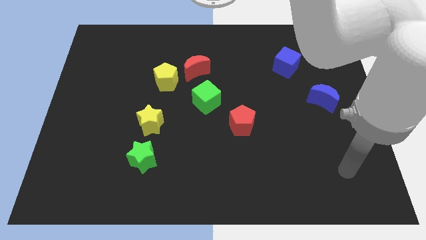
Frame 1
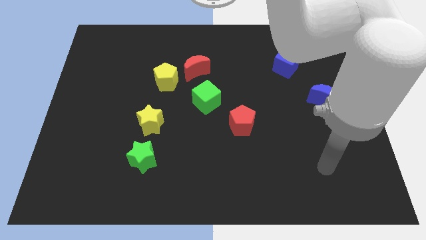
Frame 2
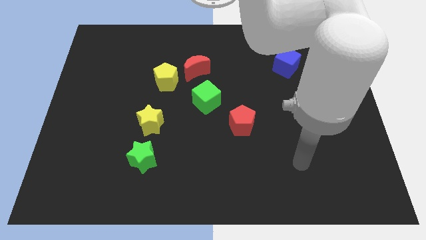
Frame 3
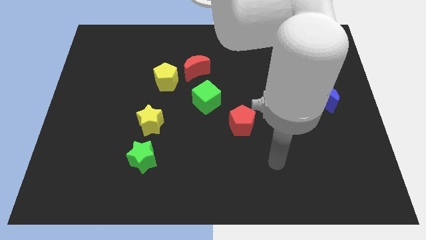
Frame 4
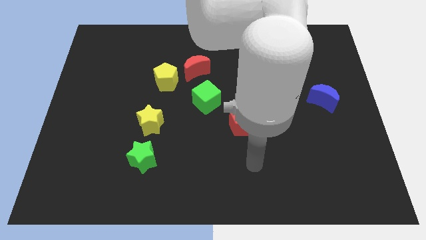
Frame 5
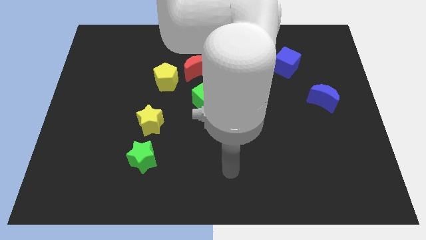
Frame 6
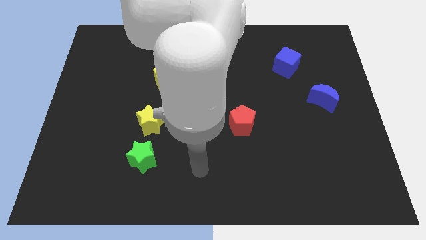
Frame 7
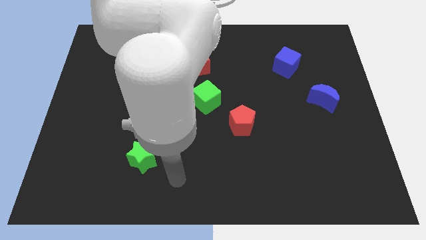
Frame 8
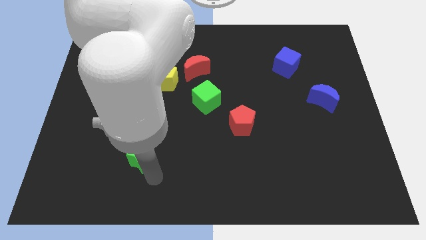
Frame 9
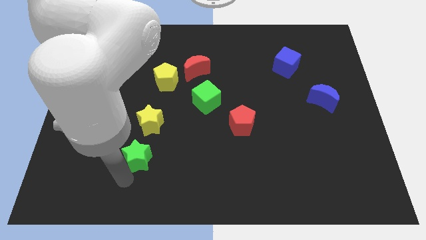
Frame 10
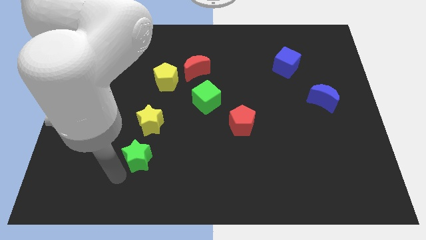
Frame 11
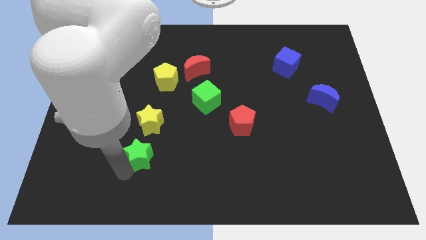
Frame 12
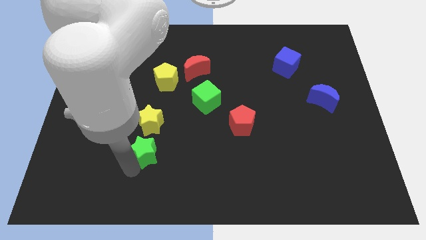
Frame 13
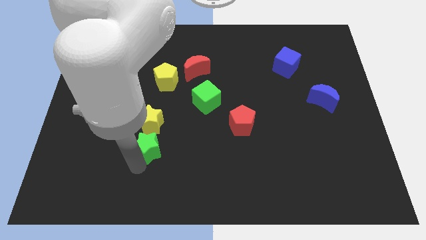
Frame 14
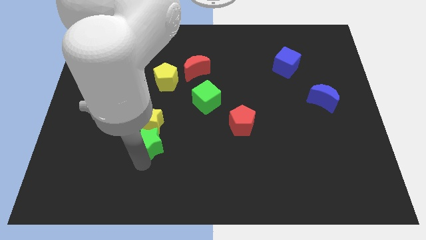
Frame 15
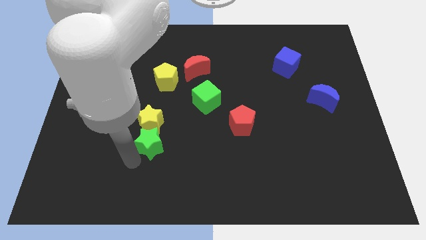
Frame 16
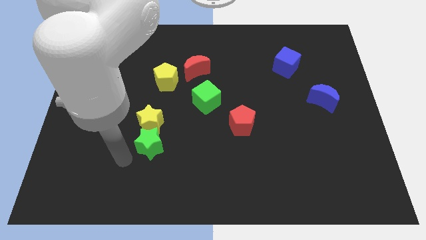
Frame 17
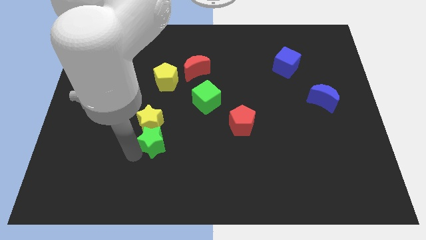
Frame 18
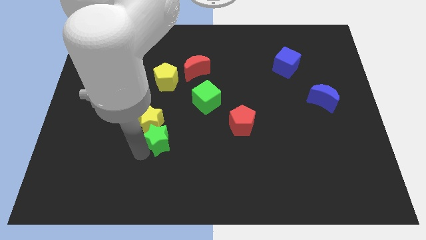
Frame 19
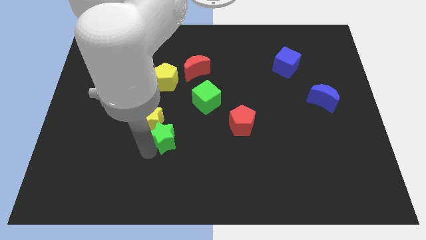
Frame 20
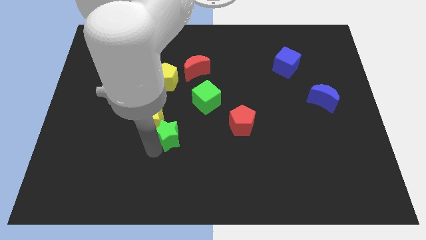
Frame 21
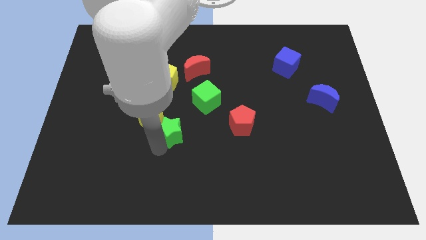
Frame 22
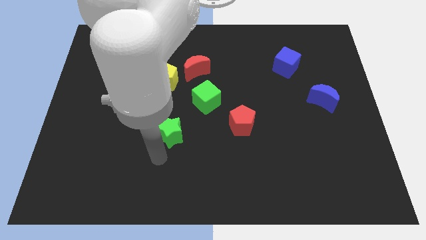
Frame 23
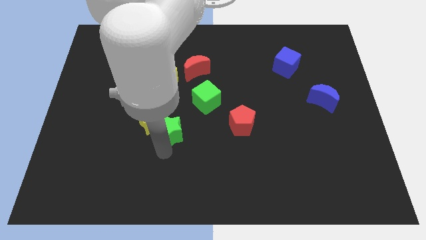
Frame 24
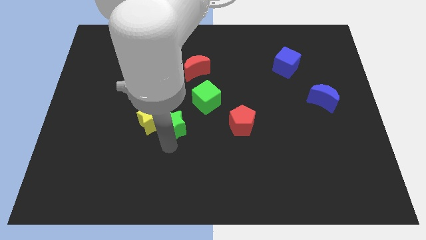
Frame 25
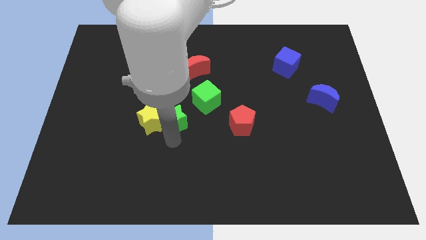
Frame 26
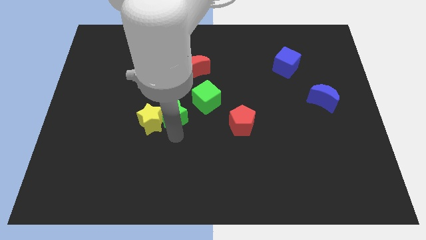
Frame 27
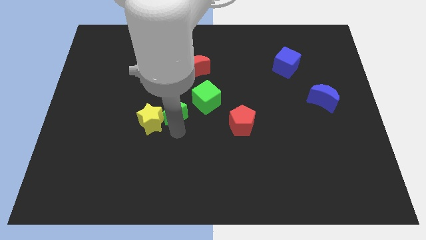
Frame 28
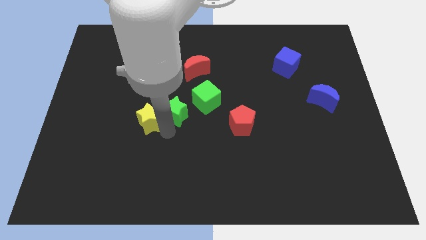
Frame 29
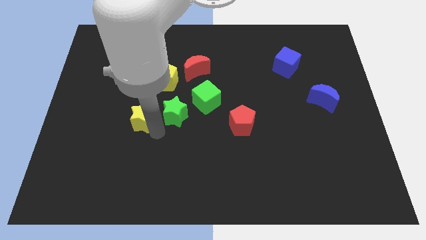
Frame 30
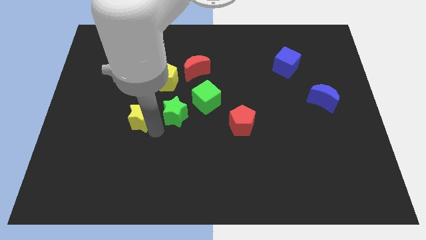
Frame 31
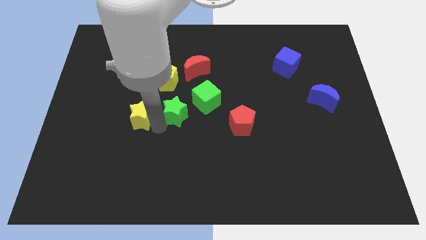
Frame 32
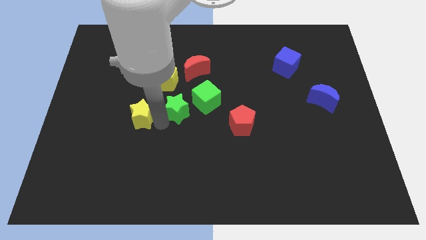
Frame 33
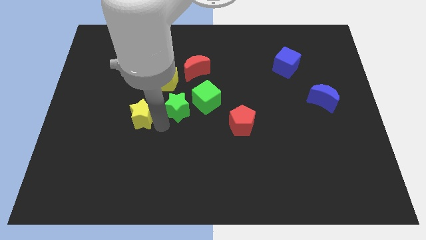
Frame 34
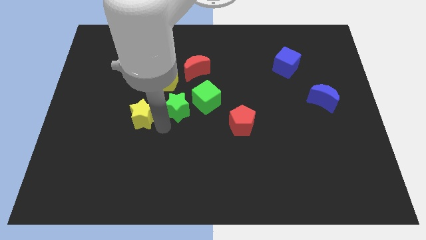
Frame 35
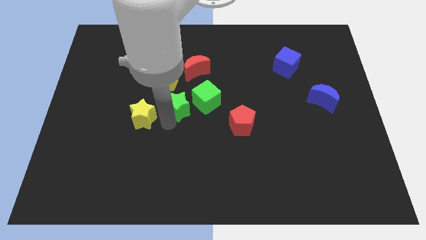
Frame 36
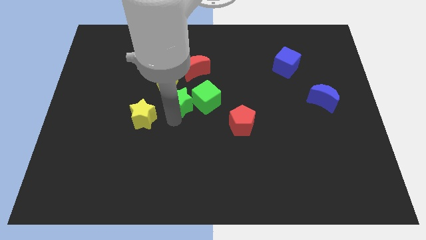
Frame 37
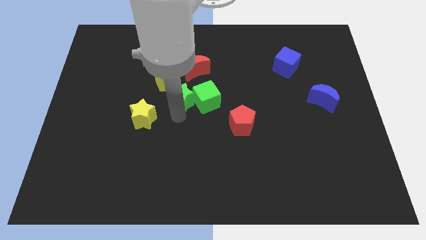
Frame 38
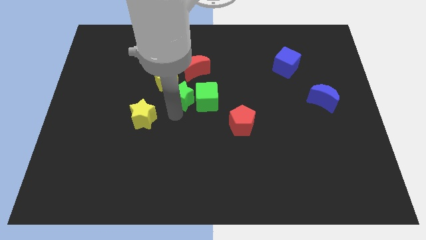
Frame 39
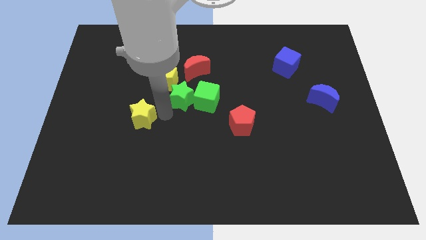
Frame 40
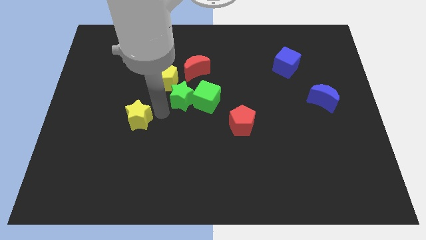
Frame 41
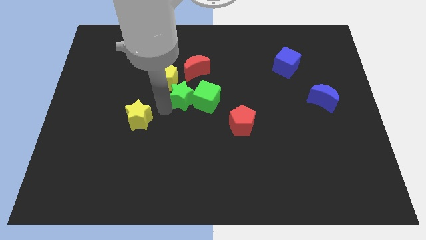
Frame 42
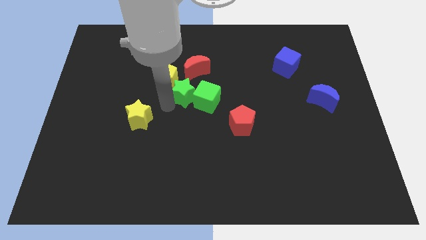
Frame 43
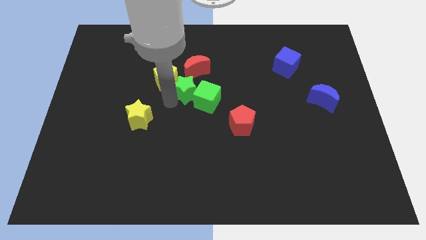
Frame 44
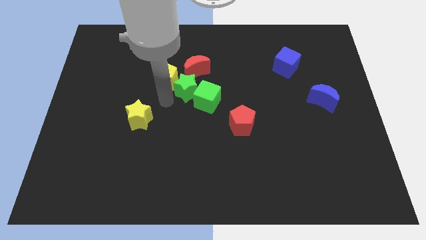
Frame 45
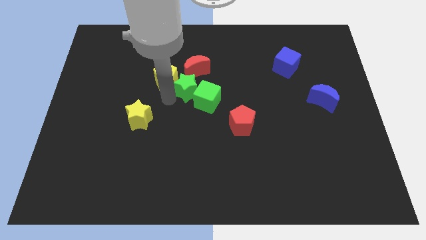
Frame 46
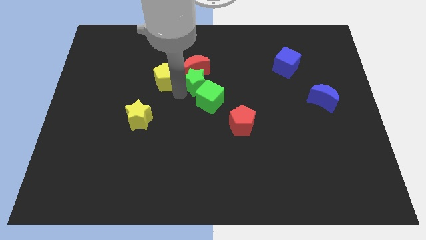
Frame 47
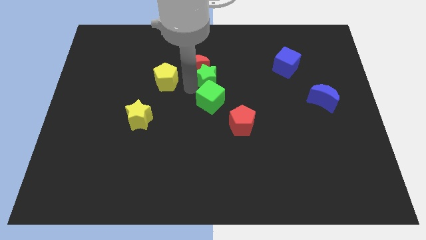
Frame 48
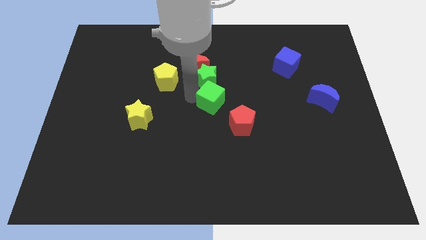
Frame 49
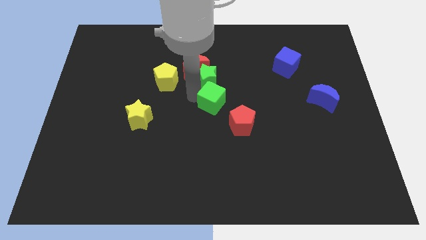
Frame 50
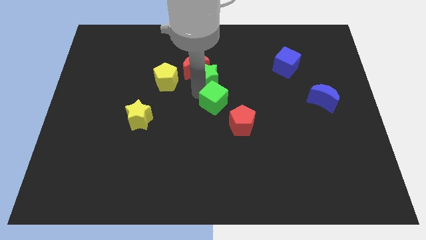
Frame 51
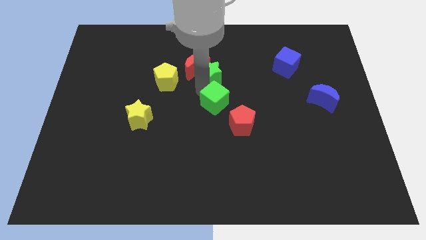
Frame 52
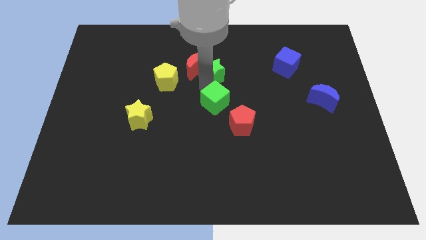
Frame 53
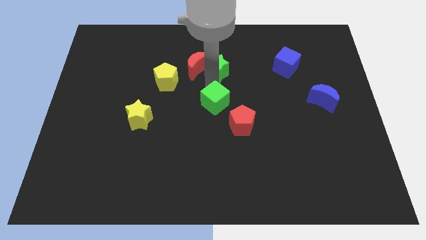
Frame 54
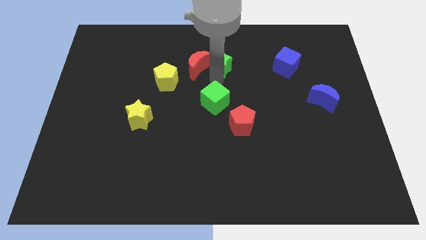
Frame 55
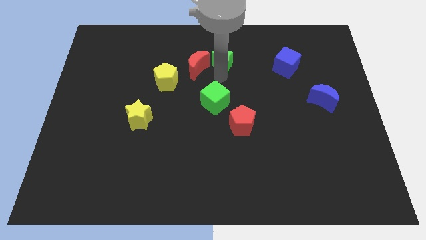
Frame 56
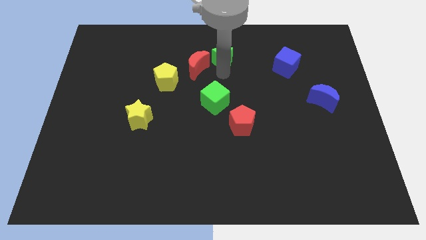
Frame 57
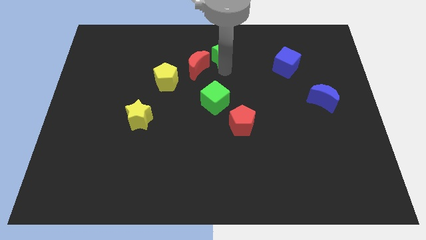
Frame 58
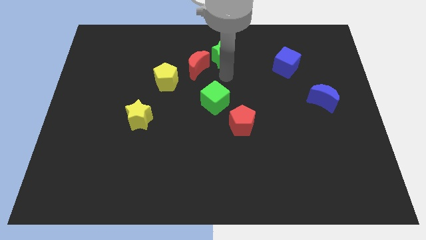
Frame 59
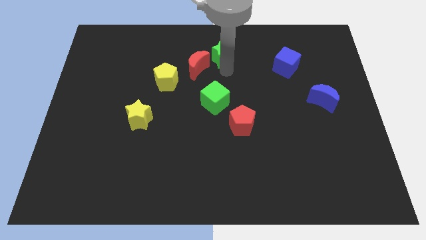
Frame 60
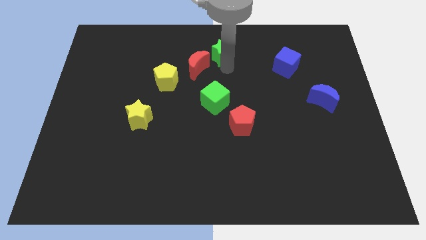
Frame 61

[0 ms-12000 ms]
move the green star to the top side

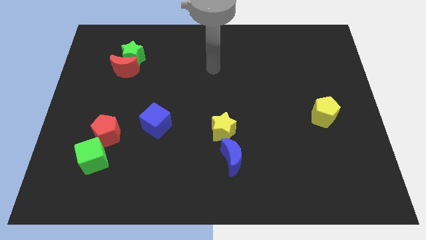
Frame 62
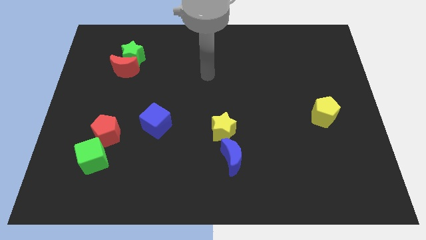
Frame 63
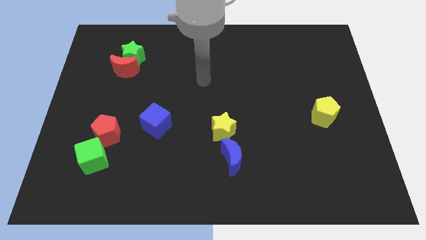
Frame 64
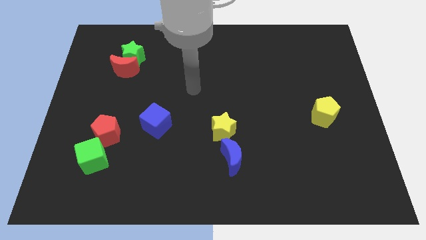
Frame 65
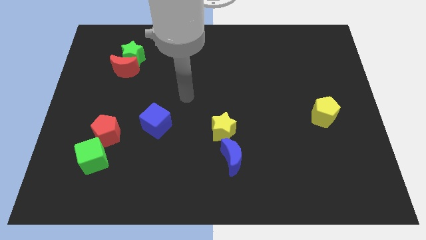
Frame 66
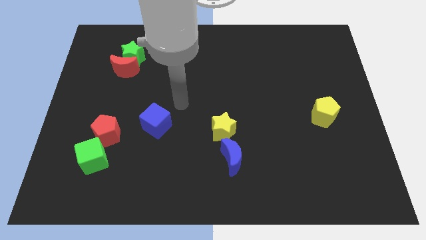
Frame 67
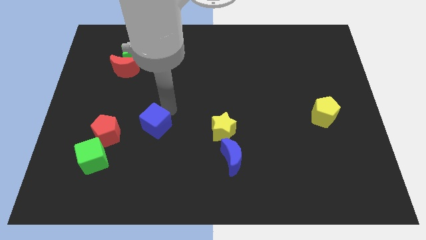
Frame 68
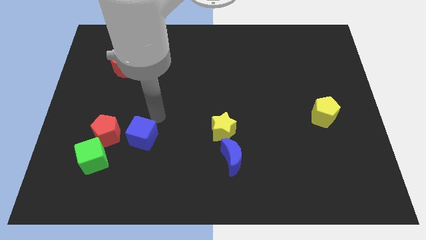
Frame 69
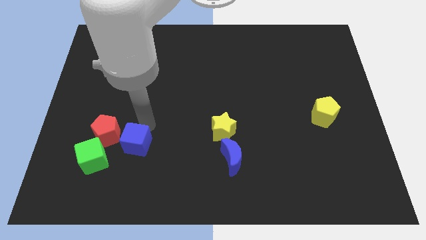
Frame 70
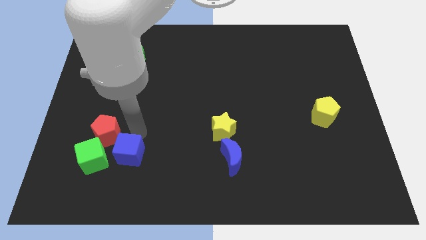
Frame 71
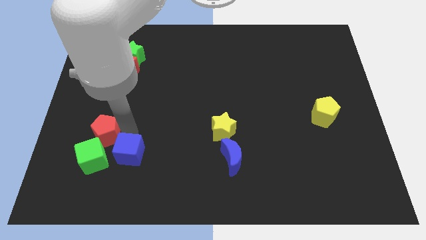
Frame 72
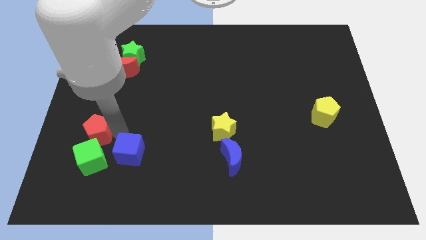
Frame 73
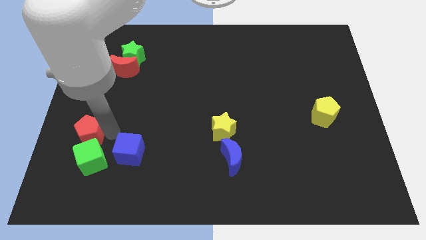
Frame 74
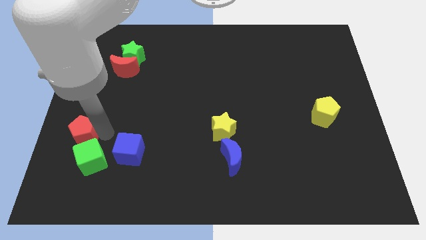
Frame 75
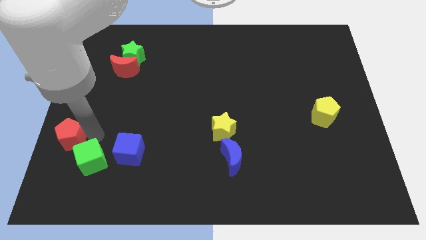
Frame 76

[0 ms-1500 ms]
push the red pentagon to the center left

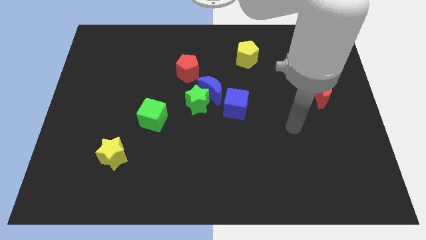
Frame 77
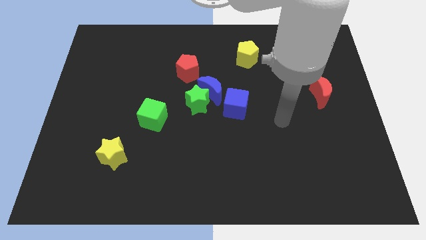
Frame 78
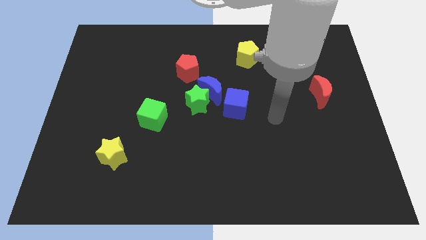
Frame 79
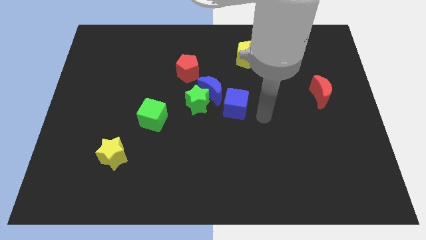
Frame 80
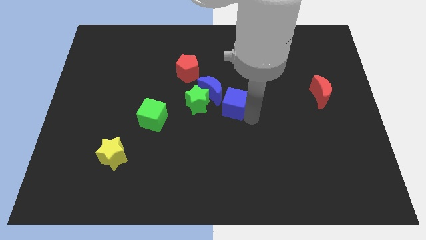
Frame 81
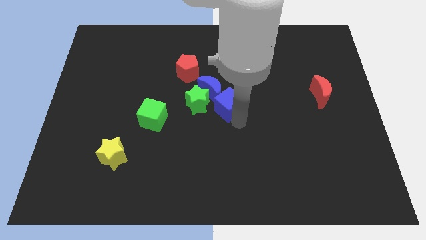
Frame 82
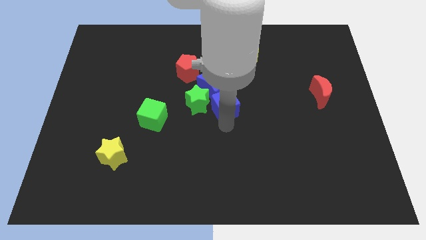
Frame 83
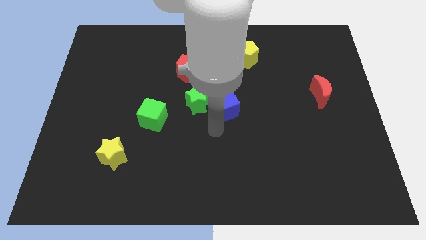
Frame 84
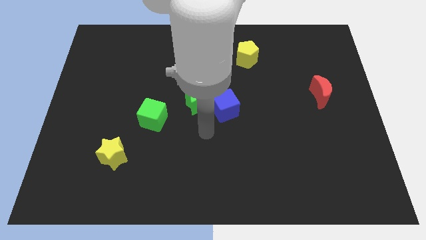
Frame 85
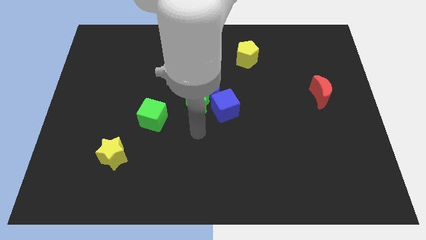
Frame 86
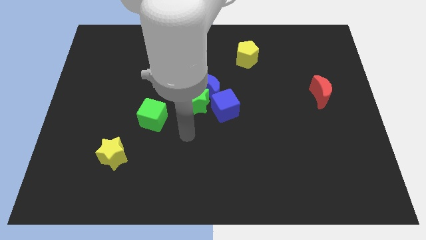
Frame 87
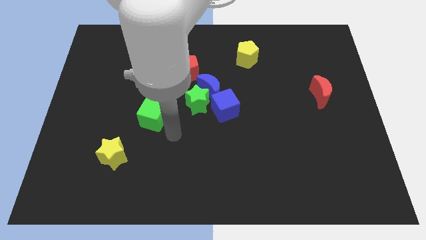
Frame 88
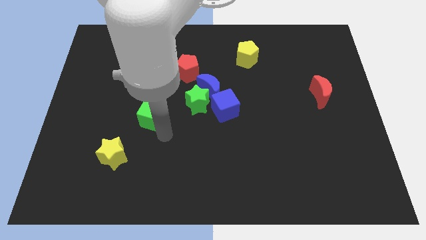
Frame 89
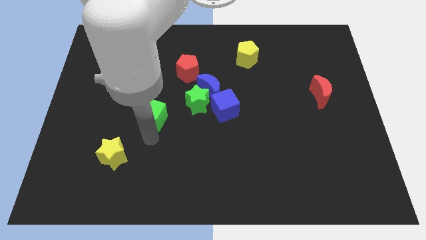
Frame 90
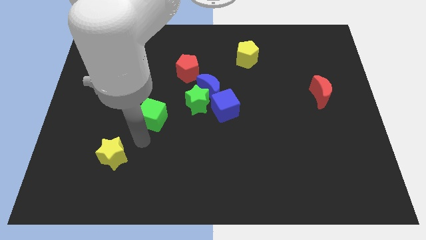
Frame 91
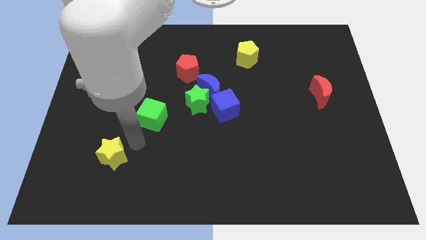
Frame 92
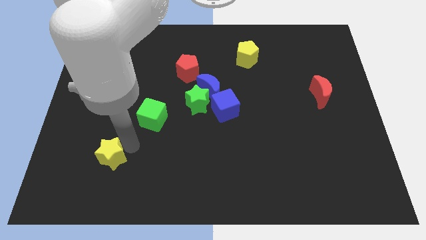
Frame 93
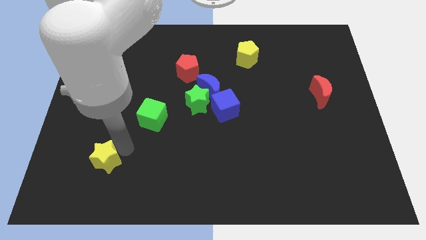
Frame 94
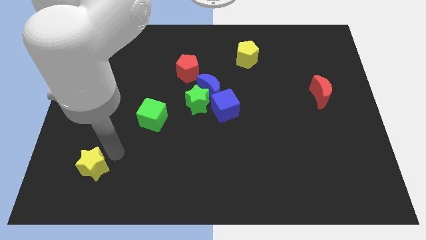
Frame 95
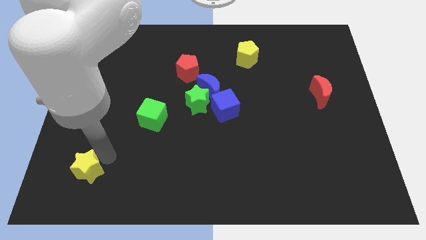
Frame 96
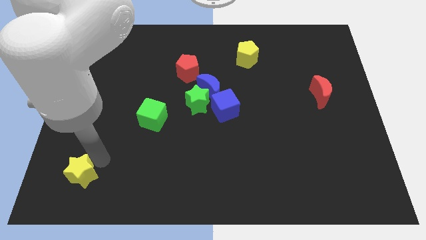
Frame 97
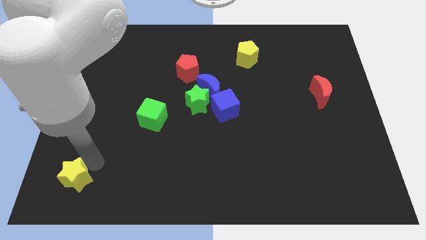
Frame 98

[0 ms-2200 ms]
move the yellow star to the bottom left of the board
